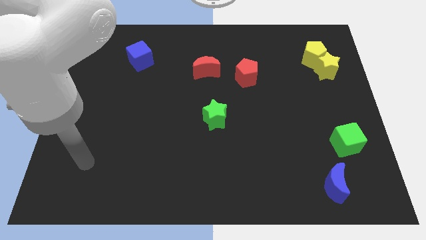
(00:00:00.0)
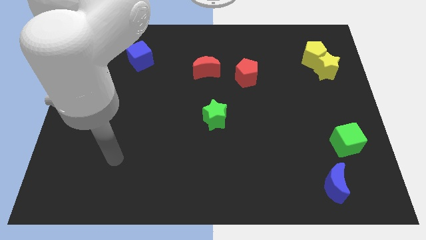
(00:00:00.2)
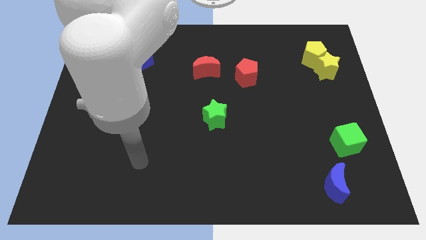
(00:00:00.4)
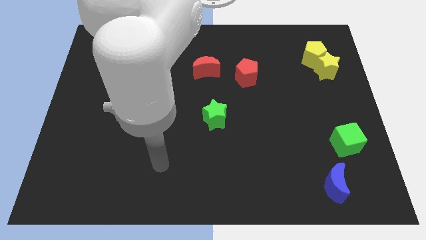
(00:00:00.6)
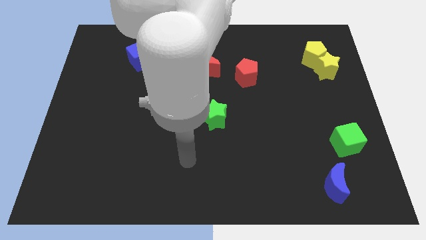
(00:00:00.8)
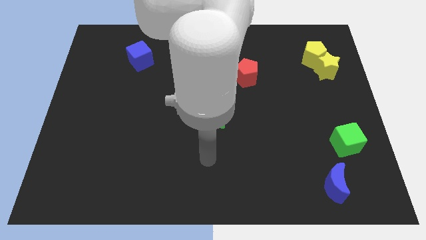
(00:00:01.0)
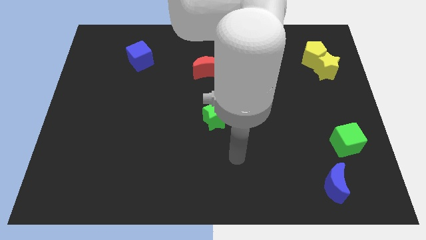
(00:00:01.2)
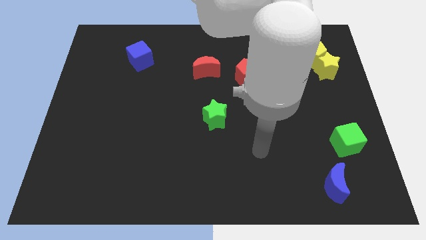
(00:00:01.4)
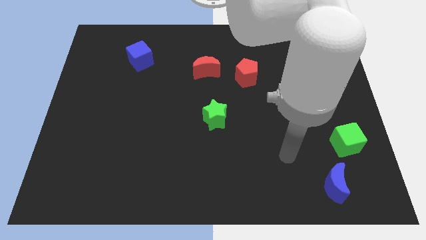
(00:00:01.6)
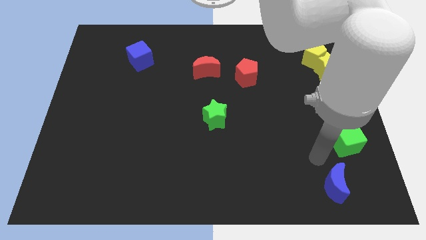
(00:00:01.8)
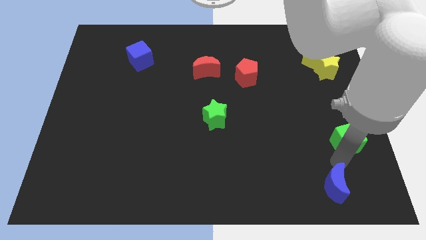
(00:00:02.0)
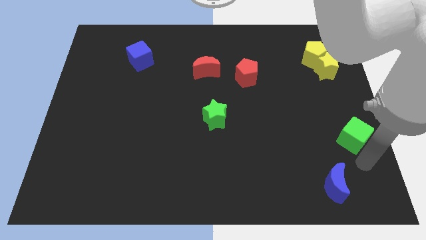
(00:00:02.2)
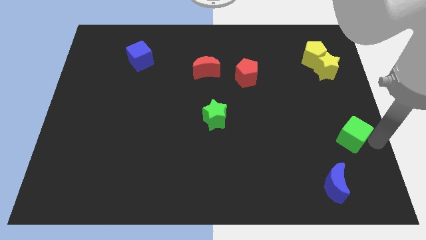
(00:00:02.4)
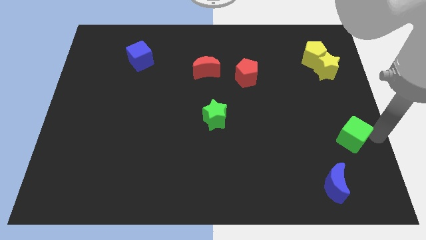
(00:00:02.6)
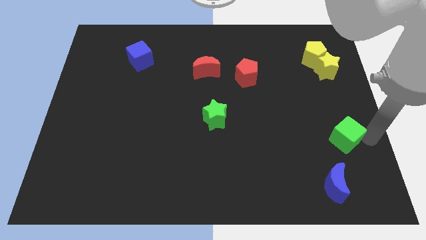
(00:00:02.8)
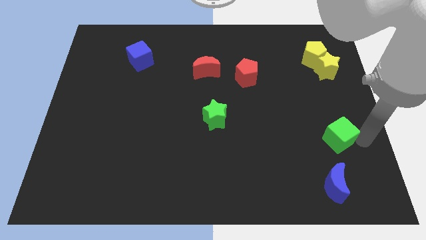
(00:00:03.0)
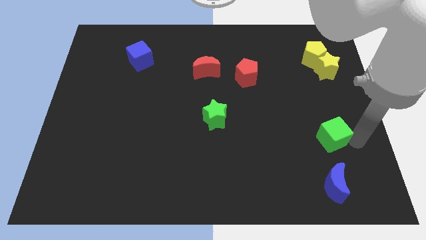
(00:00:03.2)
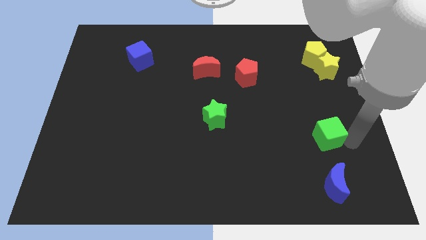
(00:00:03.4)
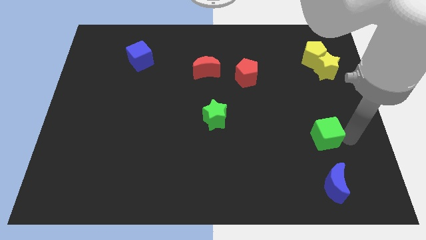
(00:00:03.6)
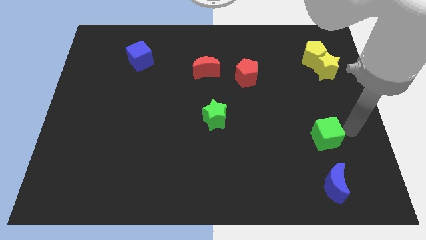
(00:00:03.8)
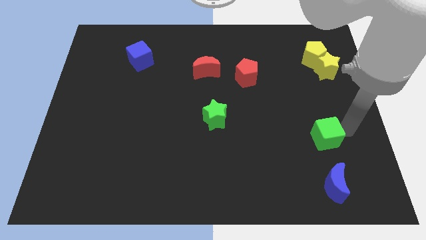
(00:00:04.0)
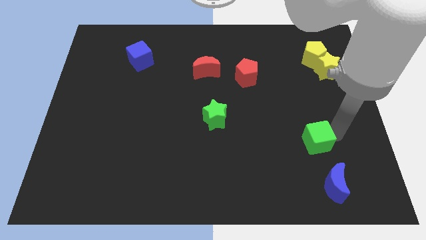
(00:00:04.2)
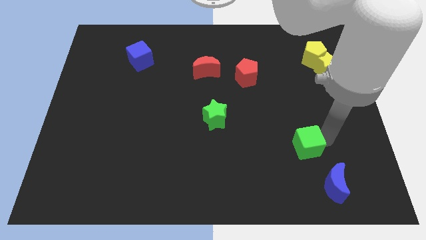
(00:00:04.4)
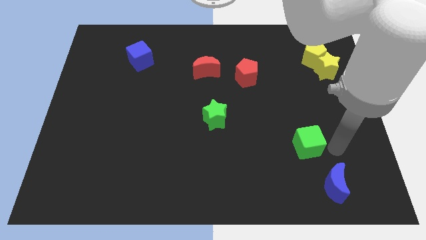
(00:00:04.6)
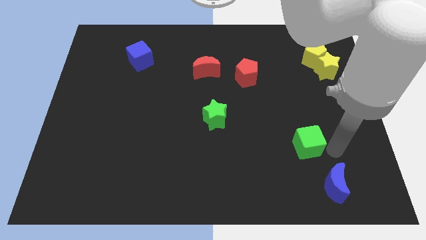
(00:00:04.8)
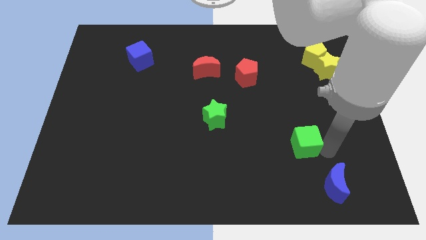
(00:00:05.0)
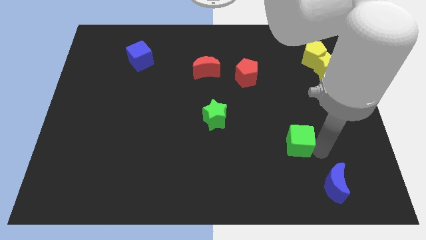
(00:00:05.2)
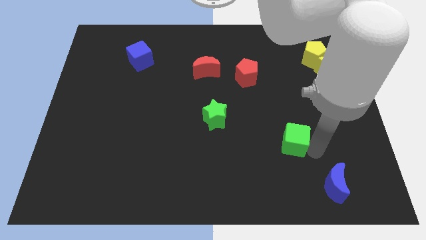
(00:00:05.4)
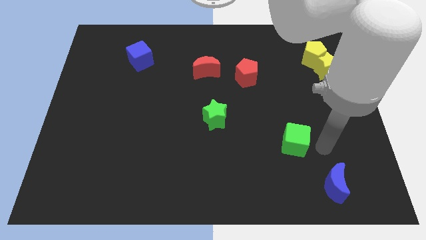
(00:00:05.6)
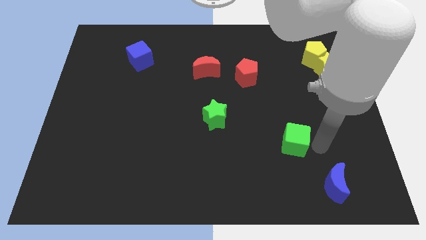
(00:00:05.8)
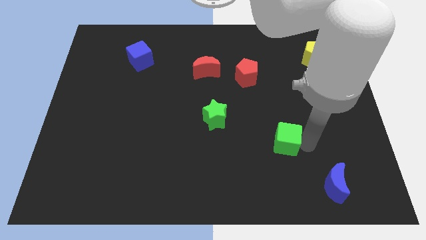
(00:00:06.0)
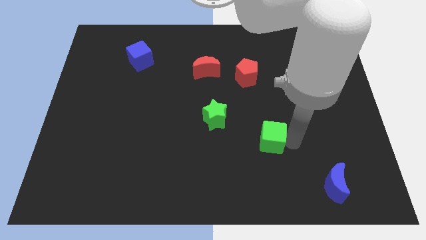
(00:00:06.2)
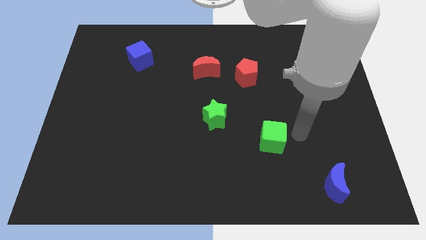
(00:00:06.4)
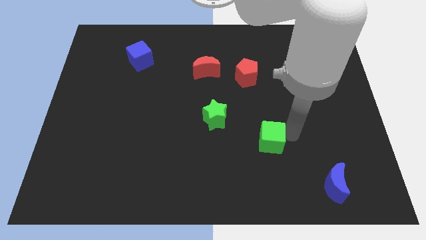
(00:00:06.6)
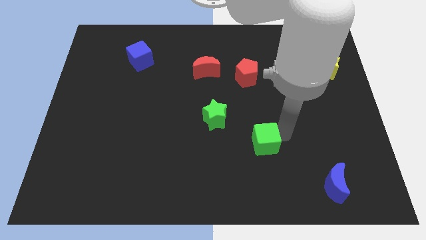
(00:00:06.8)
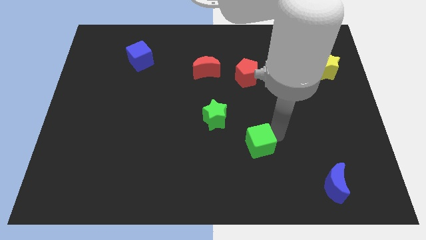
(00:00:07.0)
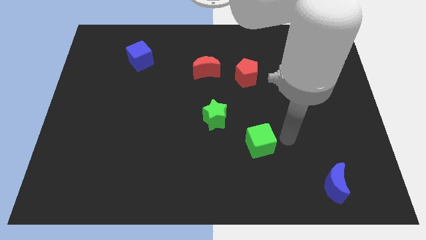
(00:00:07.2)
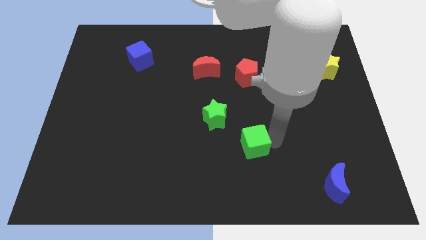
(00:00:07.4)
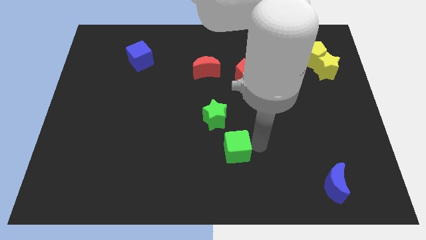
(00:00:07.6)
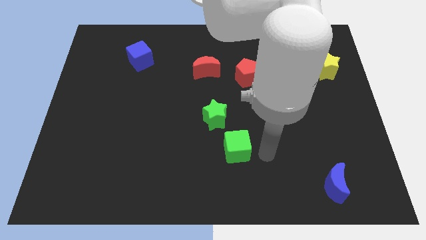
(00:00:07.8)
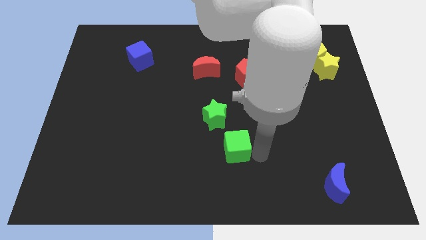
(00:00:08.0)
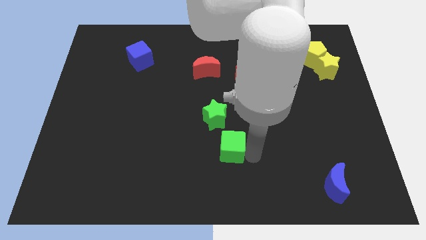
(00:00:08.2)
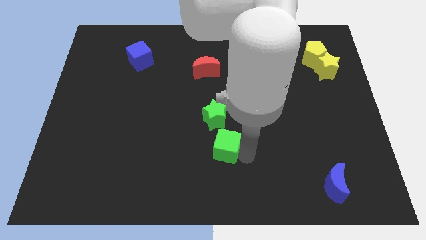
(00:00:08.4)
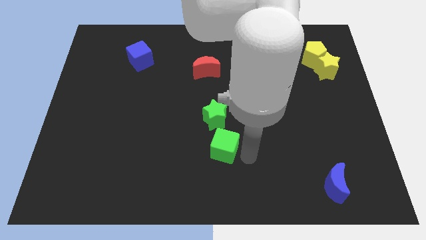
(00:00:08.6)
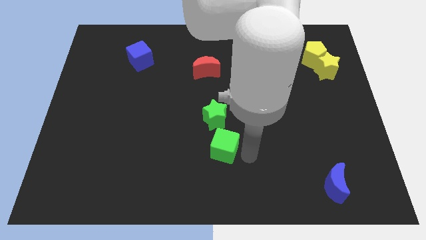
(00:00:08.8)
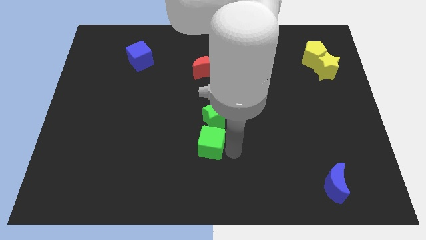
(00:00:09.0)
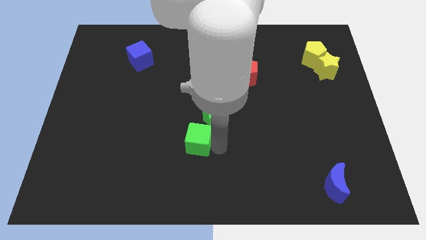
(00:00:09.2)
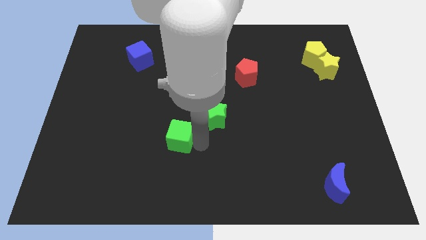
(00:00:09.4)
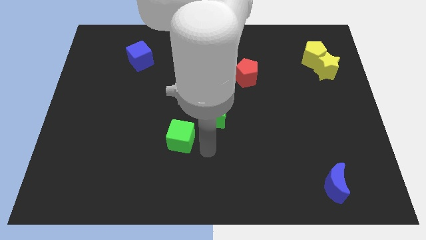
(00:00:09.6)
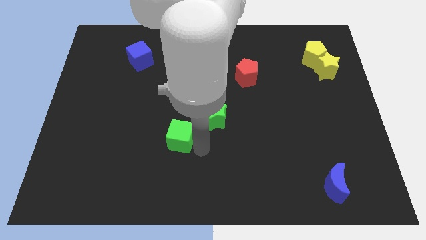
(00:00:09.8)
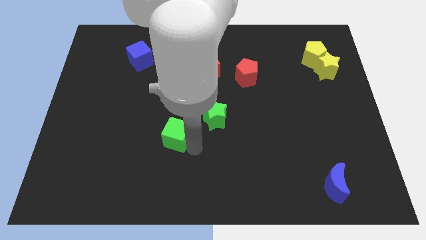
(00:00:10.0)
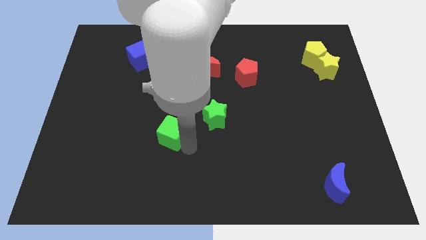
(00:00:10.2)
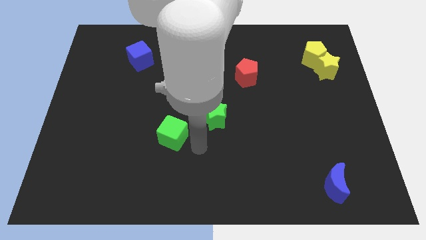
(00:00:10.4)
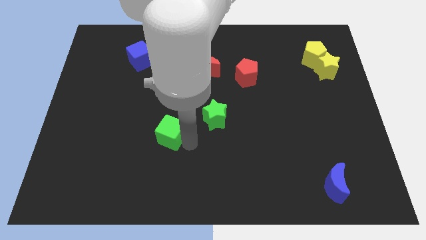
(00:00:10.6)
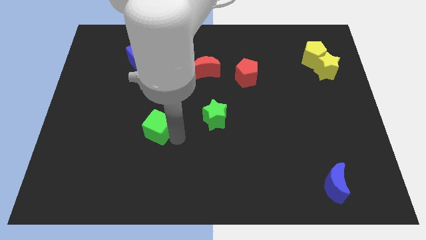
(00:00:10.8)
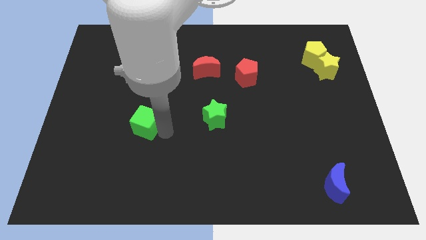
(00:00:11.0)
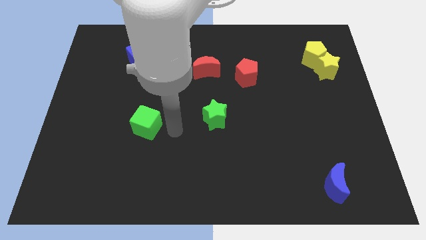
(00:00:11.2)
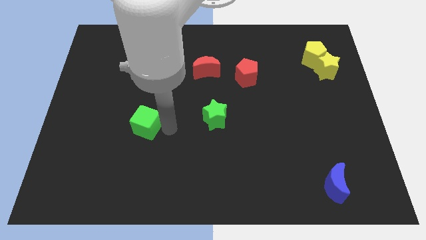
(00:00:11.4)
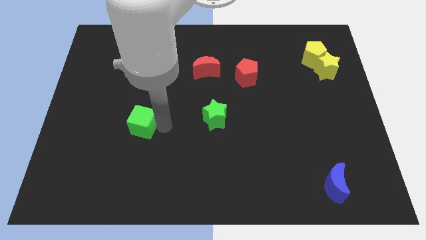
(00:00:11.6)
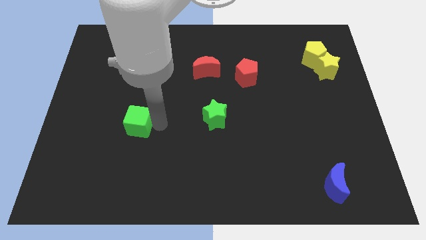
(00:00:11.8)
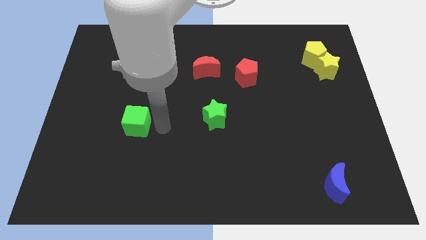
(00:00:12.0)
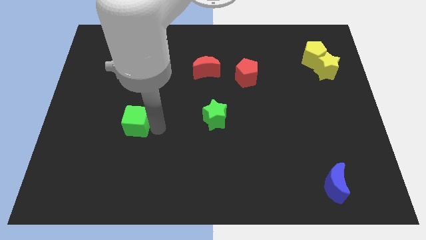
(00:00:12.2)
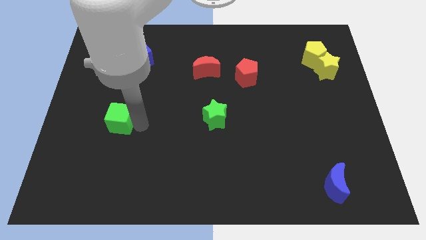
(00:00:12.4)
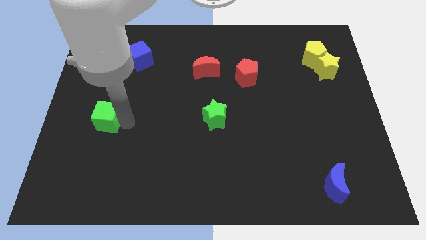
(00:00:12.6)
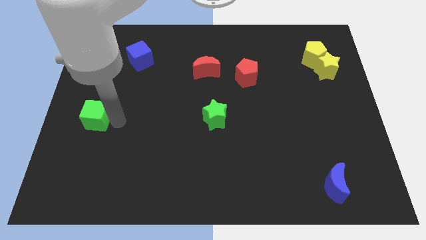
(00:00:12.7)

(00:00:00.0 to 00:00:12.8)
move the green cube to the left side

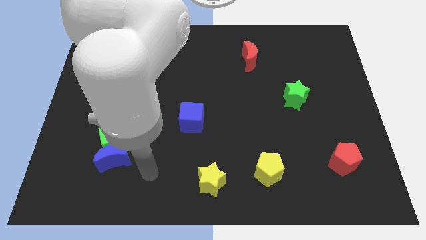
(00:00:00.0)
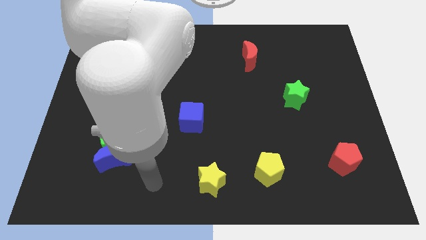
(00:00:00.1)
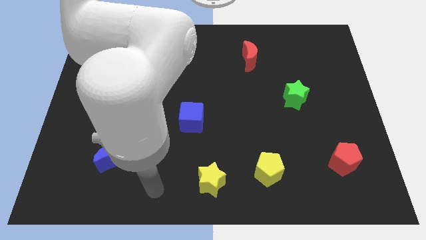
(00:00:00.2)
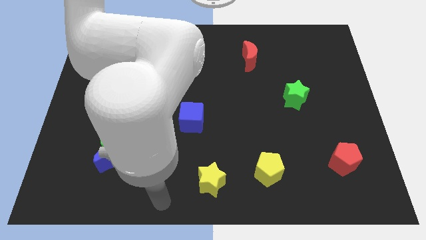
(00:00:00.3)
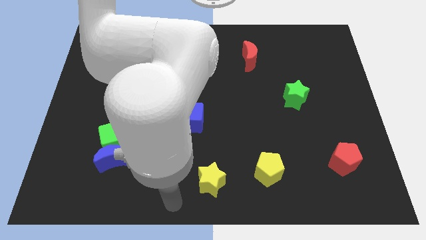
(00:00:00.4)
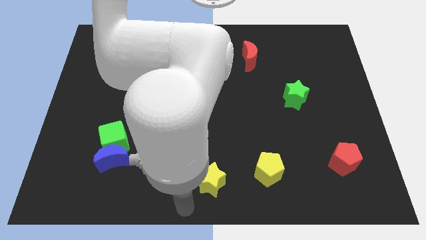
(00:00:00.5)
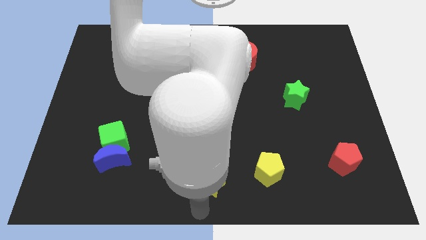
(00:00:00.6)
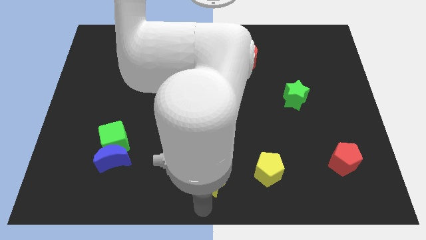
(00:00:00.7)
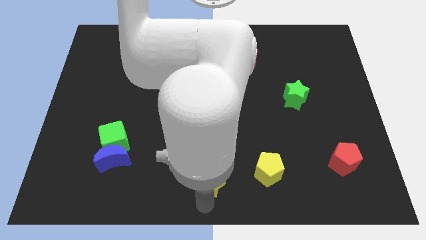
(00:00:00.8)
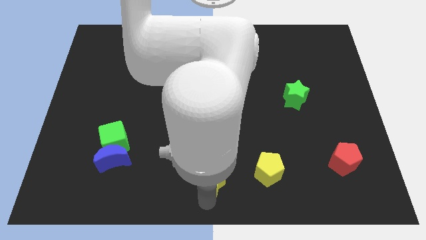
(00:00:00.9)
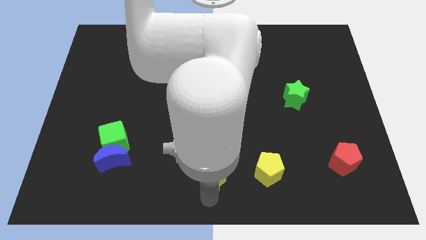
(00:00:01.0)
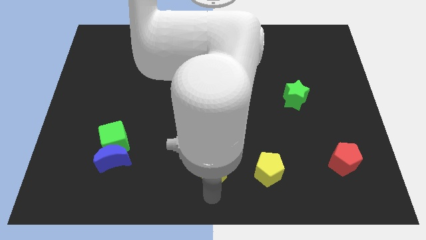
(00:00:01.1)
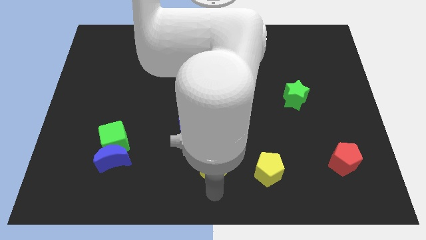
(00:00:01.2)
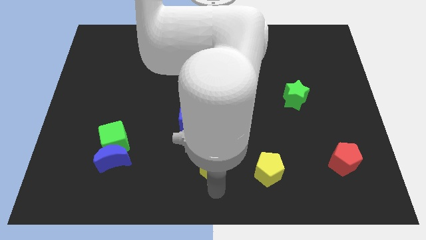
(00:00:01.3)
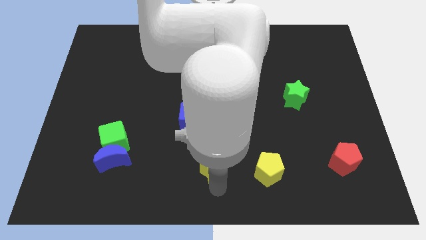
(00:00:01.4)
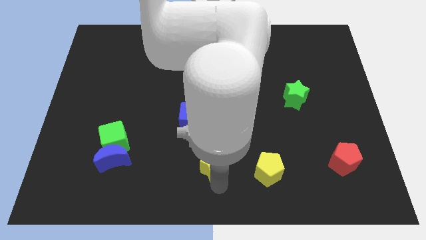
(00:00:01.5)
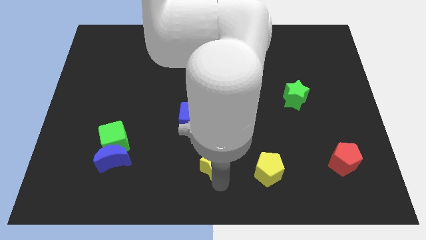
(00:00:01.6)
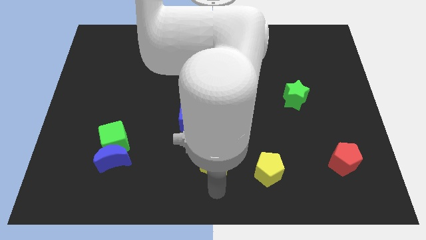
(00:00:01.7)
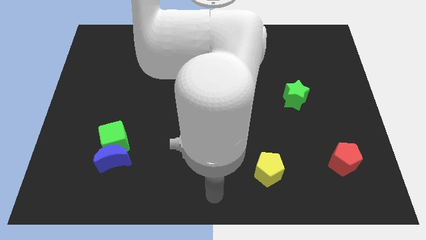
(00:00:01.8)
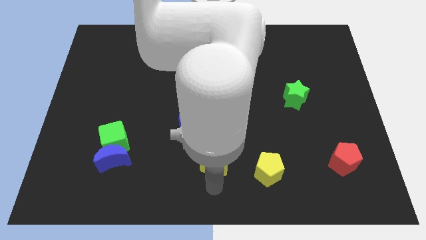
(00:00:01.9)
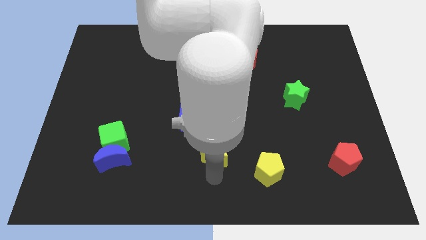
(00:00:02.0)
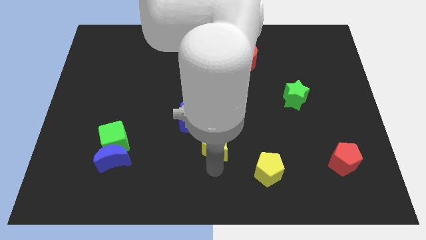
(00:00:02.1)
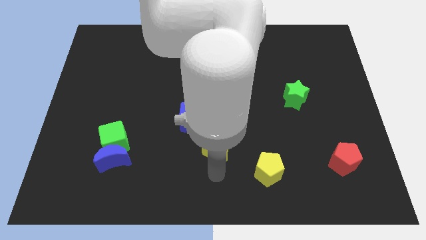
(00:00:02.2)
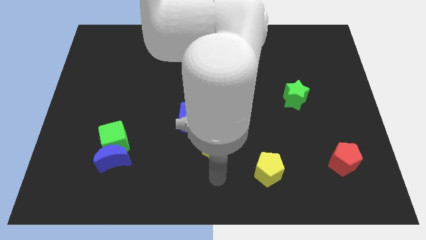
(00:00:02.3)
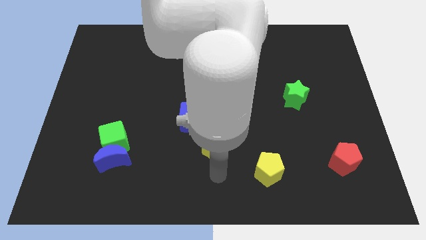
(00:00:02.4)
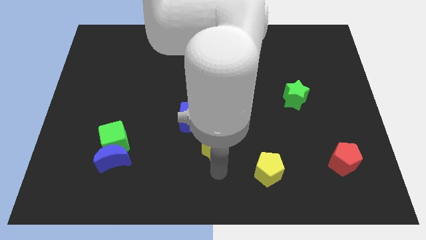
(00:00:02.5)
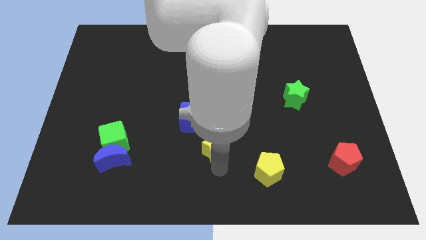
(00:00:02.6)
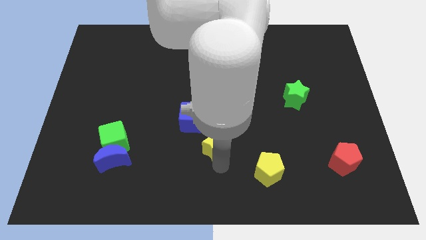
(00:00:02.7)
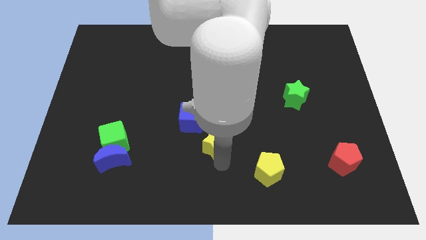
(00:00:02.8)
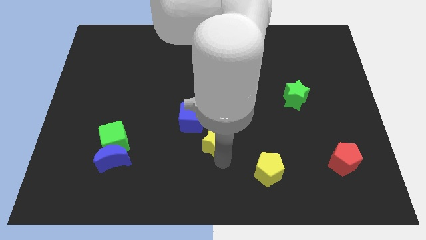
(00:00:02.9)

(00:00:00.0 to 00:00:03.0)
put the yellow star to the center
